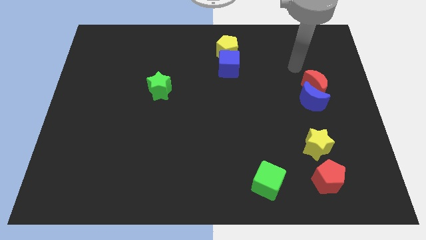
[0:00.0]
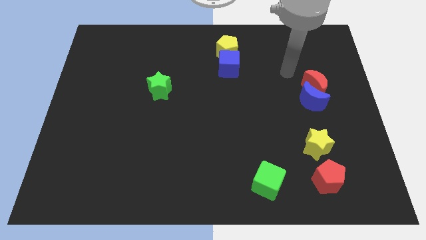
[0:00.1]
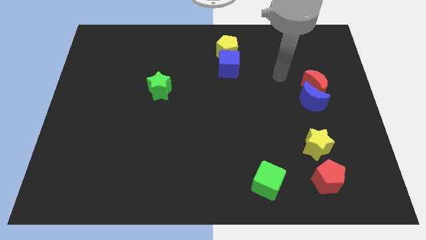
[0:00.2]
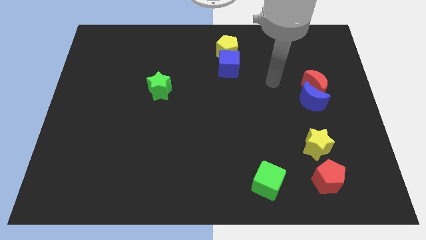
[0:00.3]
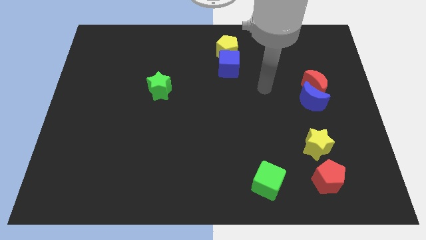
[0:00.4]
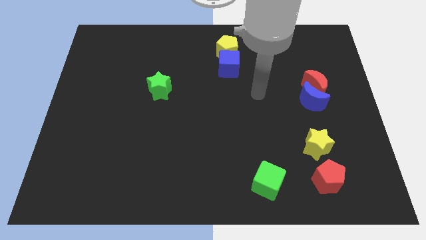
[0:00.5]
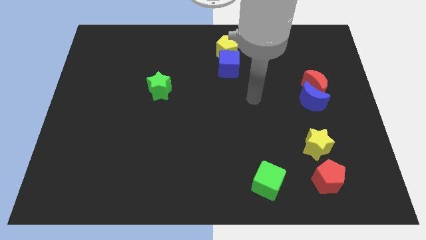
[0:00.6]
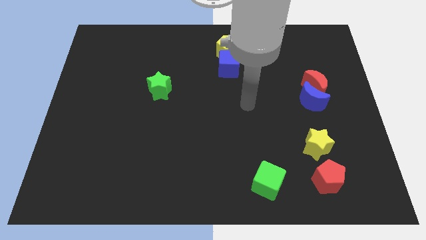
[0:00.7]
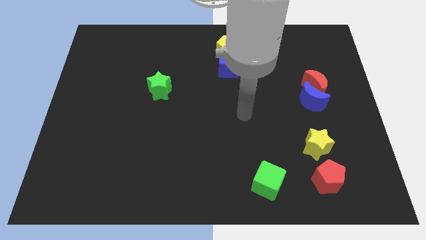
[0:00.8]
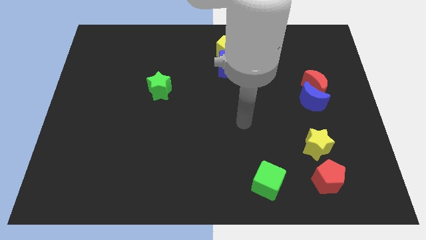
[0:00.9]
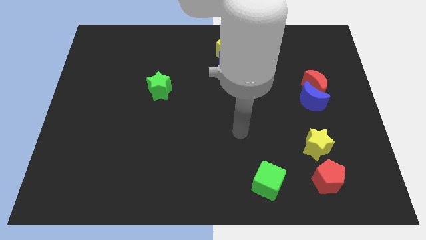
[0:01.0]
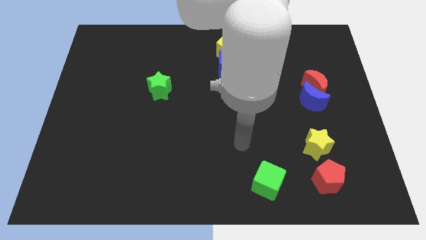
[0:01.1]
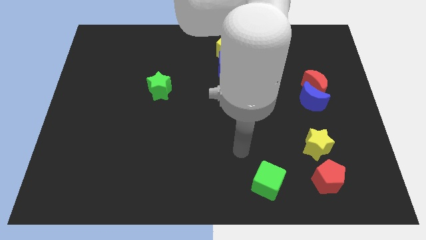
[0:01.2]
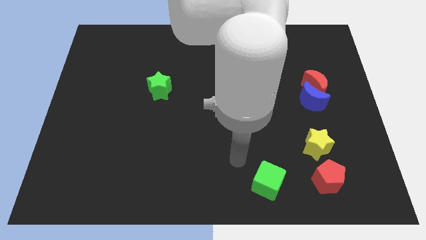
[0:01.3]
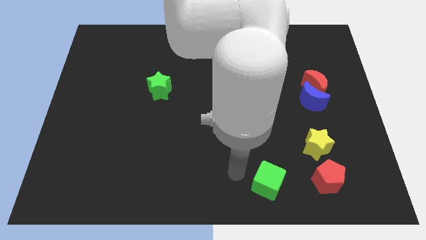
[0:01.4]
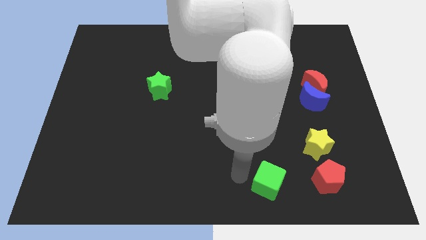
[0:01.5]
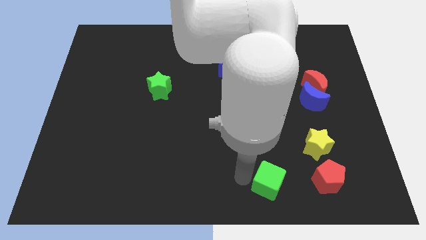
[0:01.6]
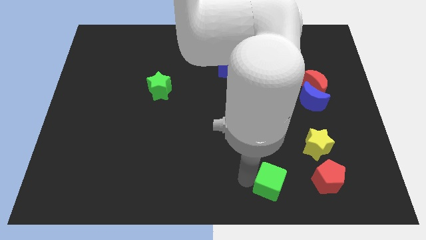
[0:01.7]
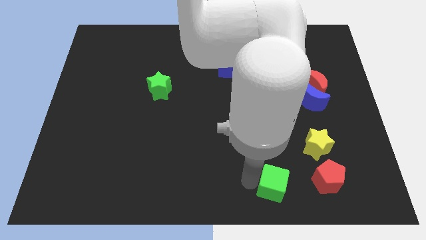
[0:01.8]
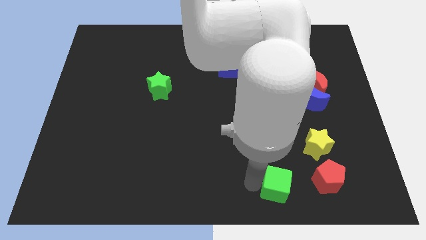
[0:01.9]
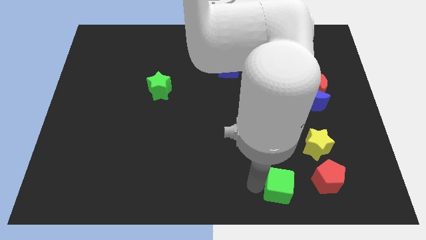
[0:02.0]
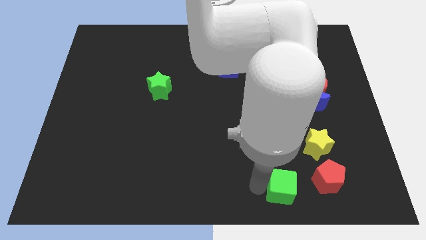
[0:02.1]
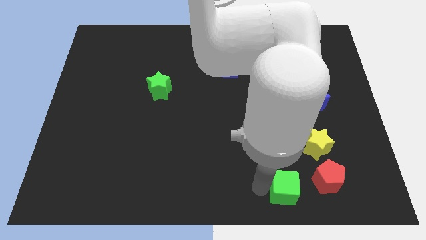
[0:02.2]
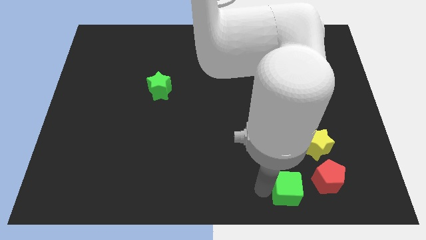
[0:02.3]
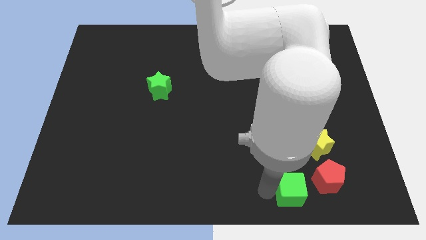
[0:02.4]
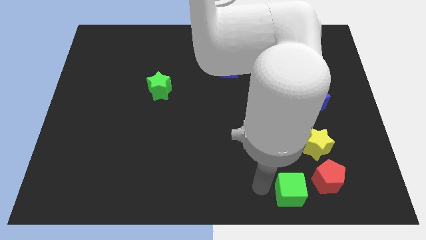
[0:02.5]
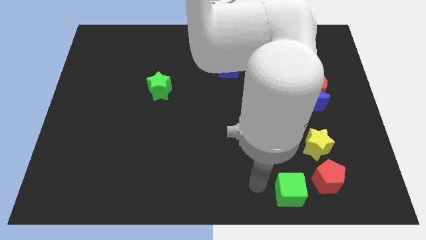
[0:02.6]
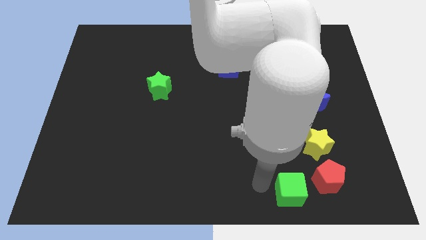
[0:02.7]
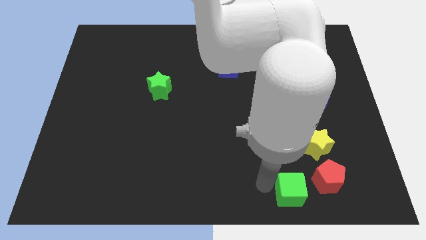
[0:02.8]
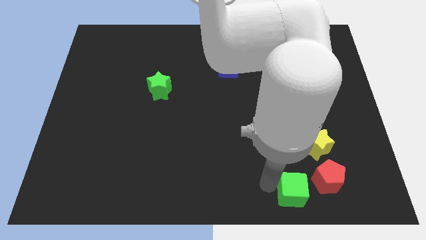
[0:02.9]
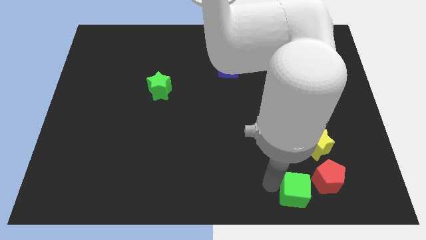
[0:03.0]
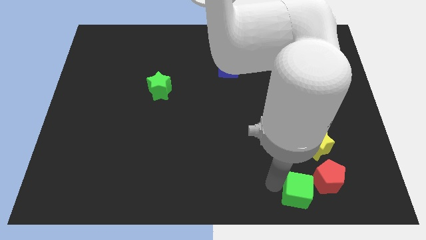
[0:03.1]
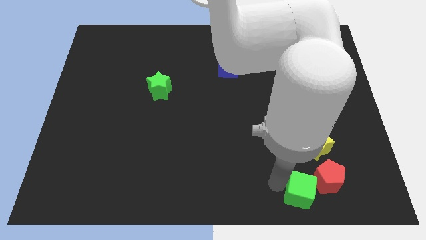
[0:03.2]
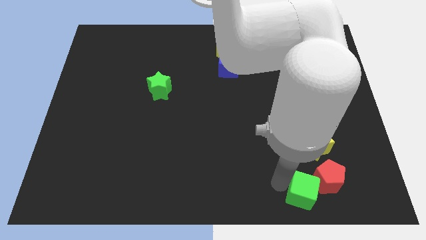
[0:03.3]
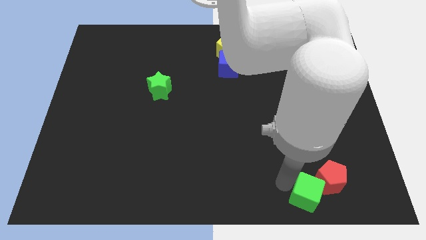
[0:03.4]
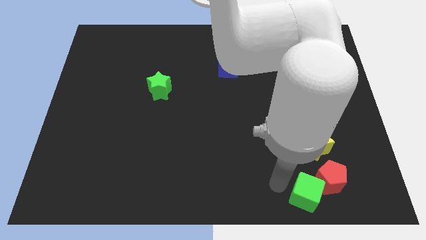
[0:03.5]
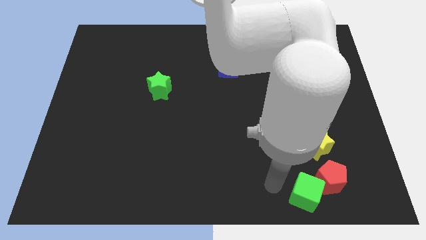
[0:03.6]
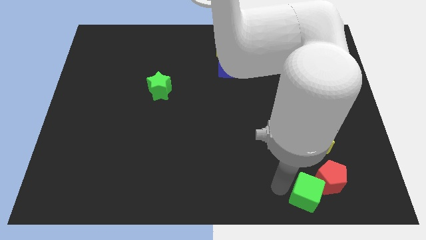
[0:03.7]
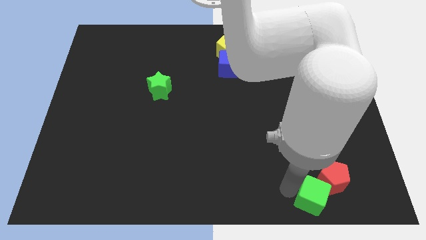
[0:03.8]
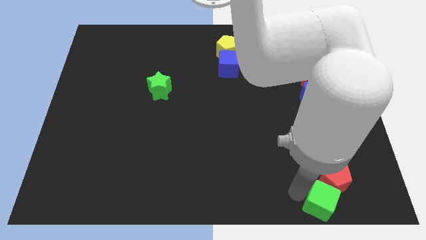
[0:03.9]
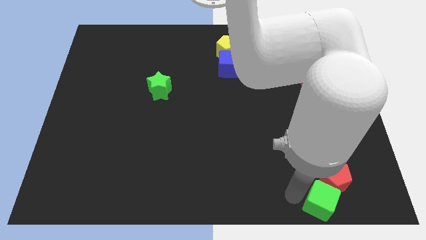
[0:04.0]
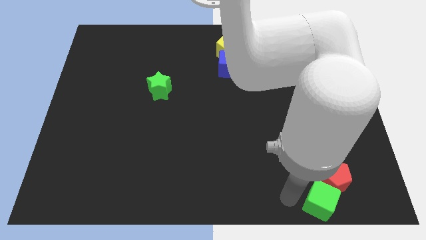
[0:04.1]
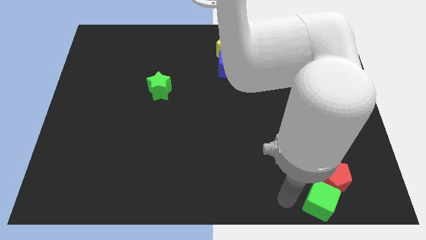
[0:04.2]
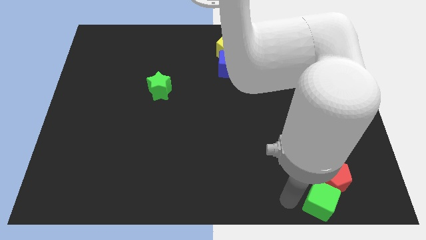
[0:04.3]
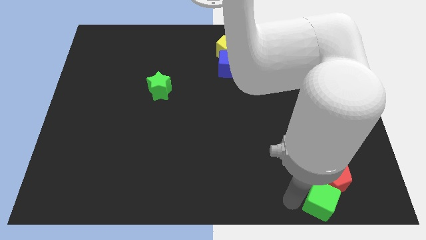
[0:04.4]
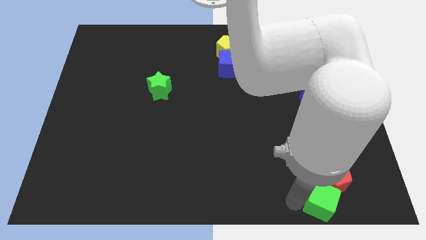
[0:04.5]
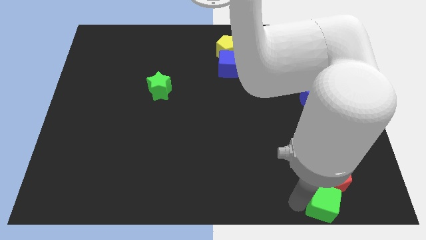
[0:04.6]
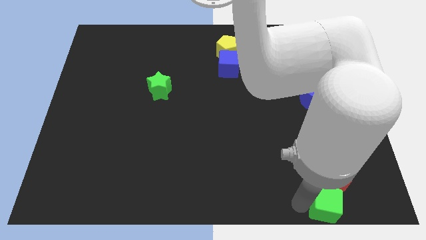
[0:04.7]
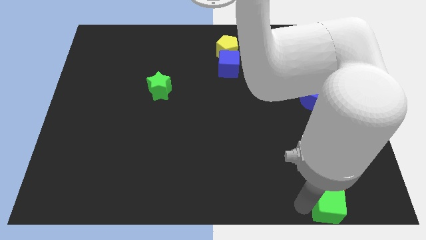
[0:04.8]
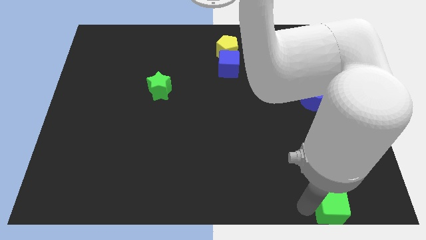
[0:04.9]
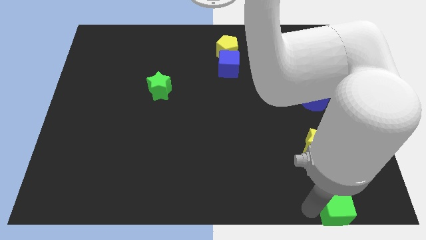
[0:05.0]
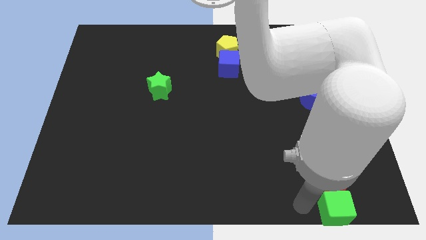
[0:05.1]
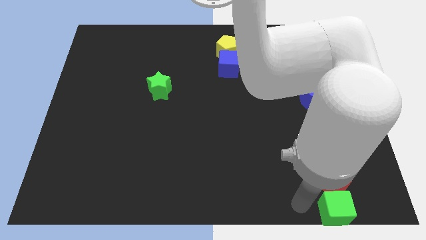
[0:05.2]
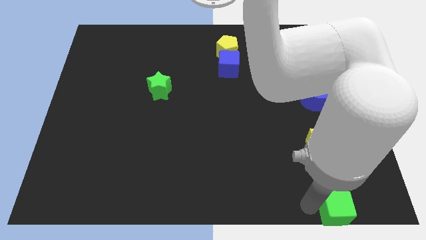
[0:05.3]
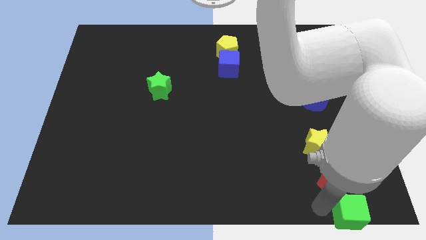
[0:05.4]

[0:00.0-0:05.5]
put the green cube to the bottom right
